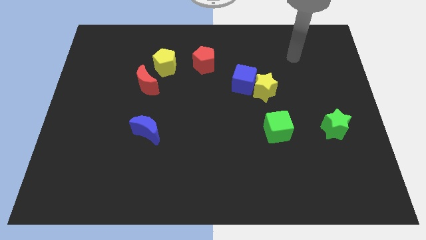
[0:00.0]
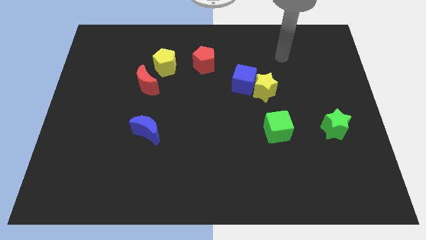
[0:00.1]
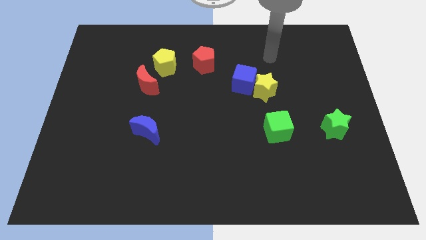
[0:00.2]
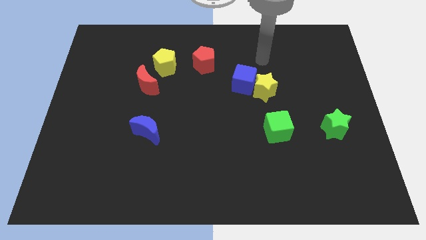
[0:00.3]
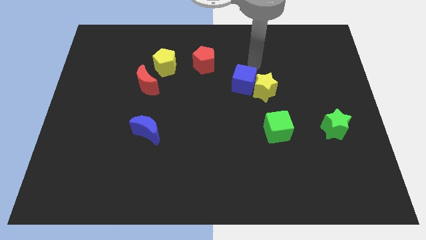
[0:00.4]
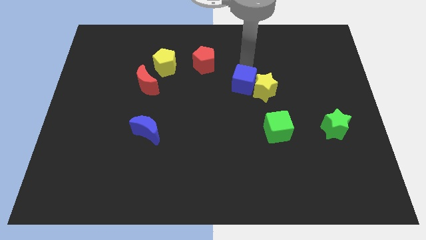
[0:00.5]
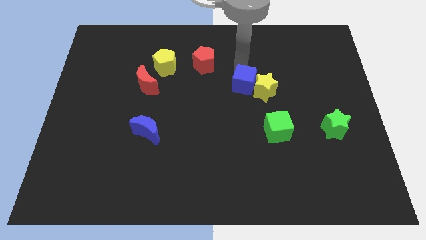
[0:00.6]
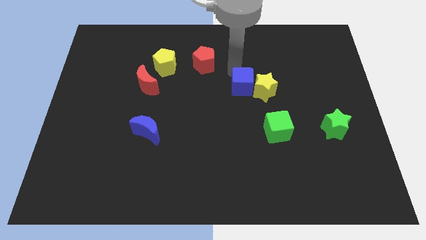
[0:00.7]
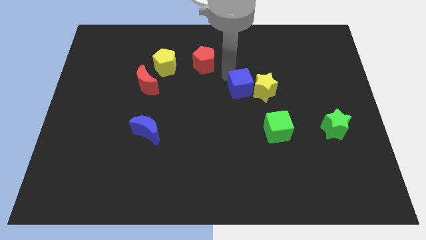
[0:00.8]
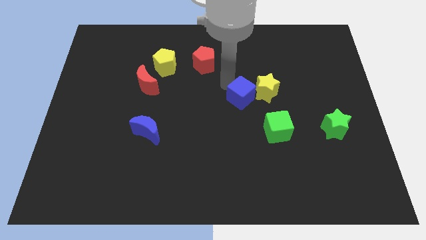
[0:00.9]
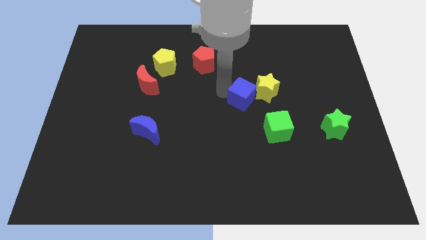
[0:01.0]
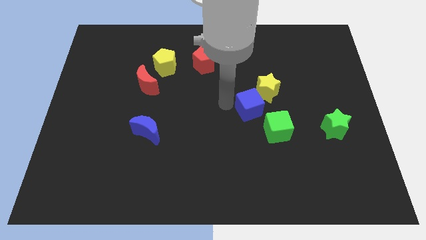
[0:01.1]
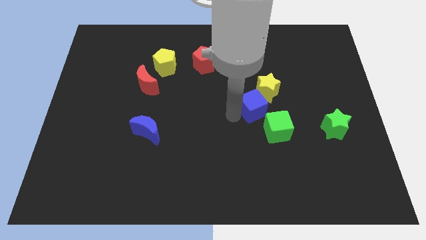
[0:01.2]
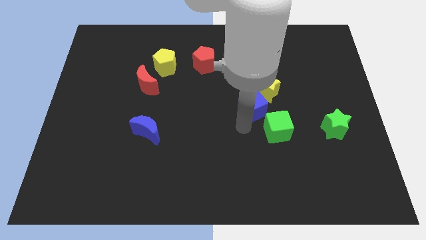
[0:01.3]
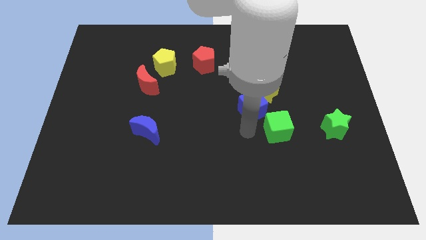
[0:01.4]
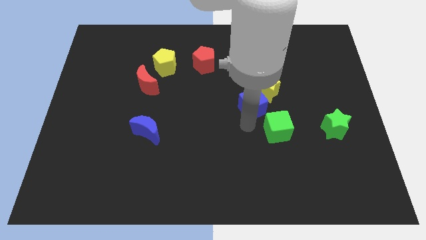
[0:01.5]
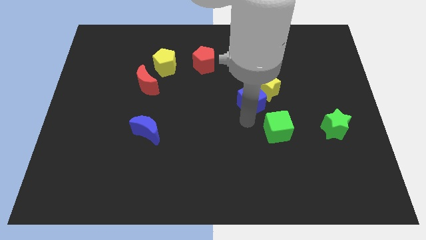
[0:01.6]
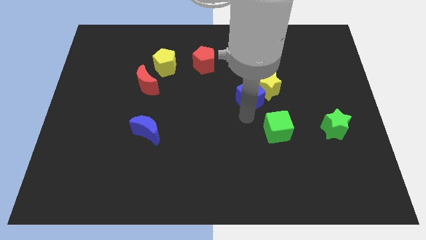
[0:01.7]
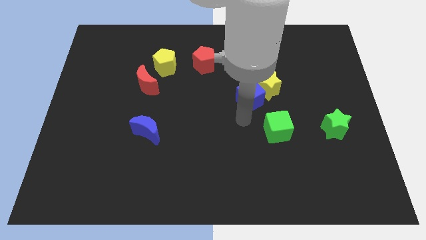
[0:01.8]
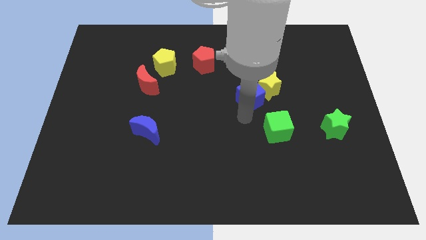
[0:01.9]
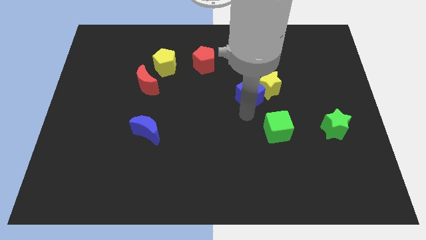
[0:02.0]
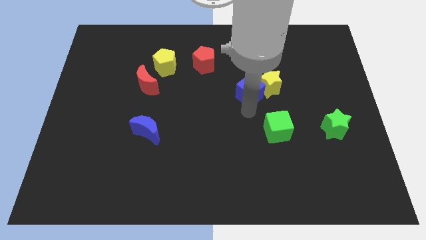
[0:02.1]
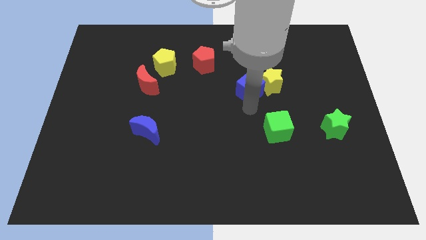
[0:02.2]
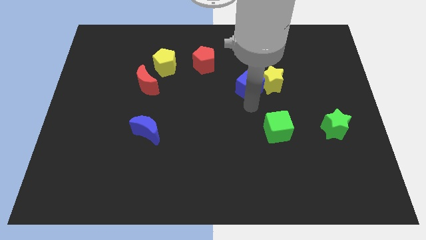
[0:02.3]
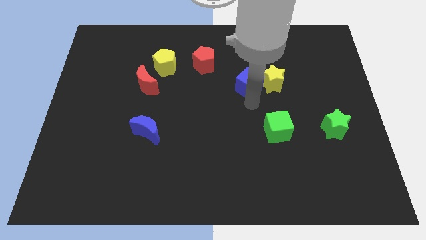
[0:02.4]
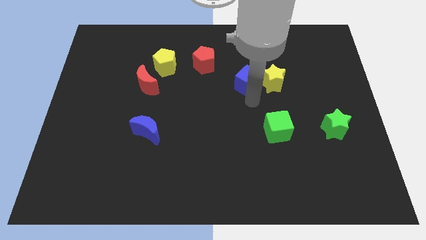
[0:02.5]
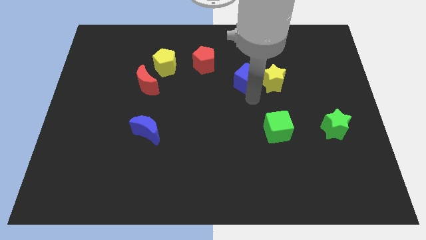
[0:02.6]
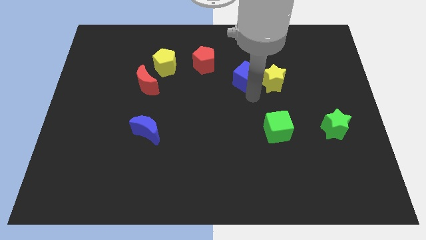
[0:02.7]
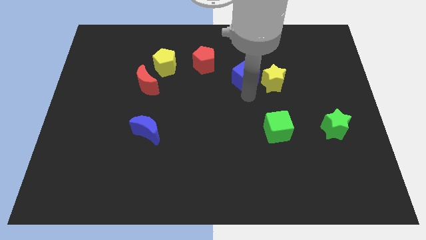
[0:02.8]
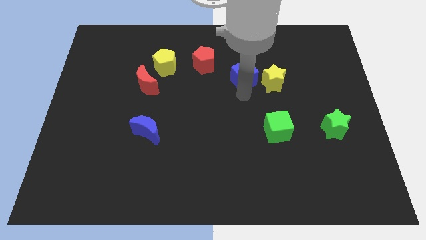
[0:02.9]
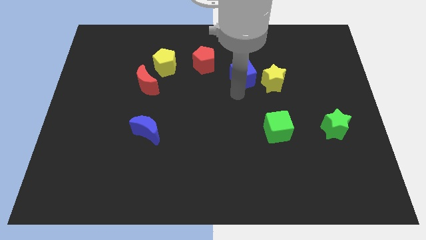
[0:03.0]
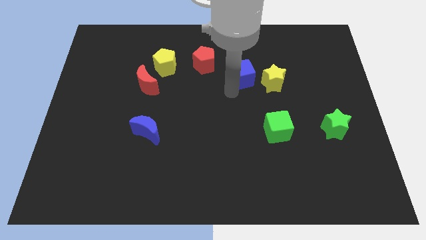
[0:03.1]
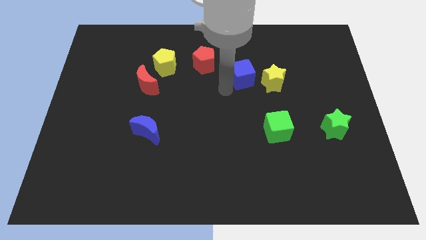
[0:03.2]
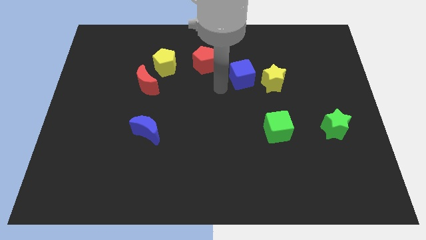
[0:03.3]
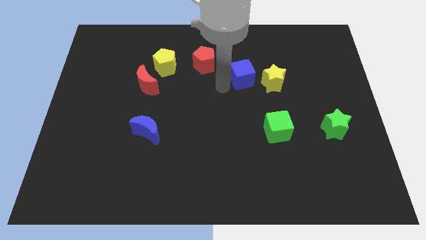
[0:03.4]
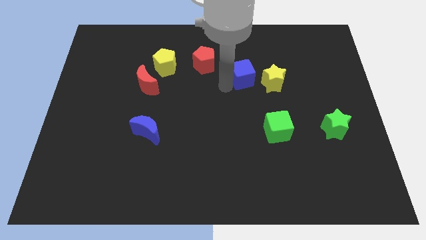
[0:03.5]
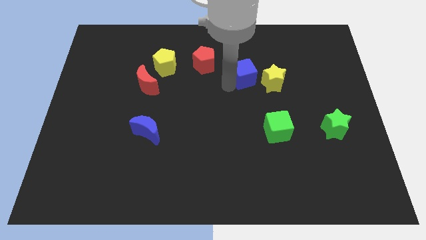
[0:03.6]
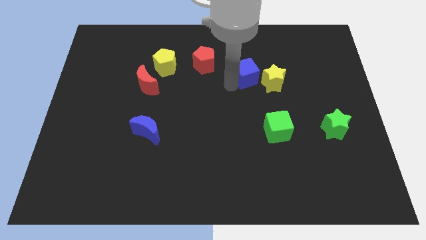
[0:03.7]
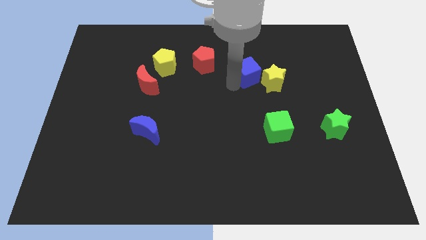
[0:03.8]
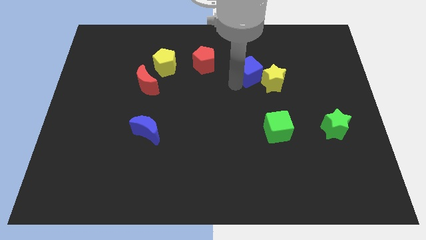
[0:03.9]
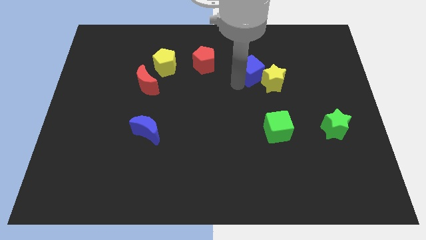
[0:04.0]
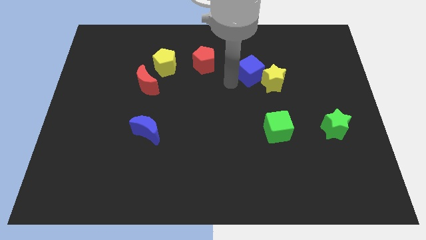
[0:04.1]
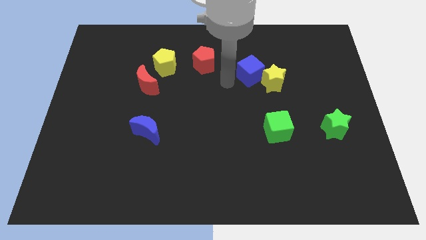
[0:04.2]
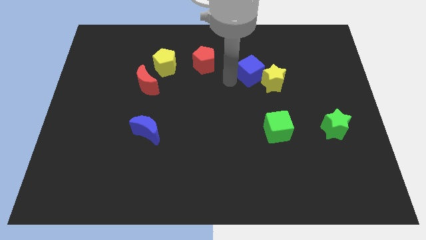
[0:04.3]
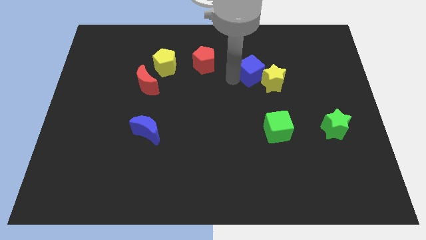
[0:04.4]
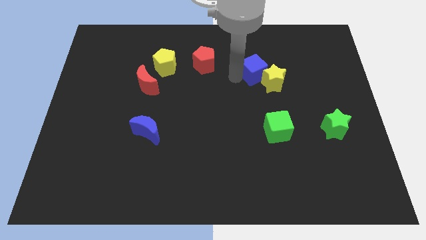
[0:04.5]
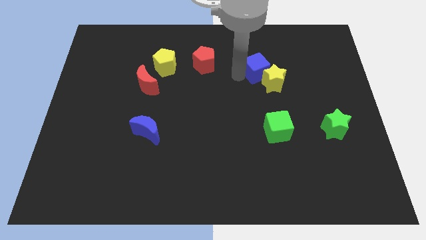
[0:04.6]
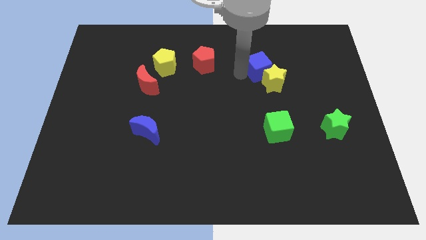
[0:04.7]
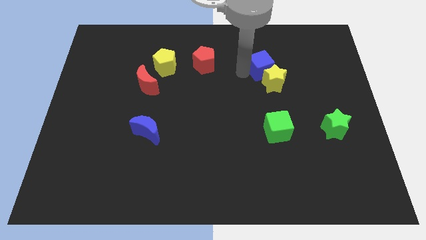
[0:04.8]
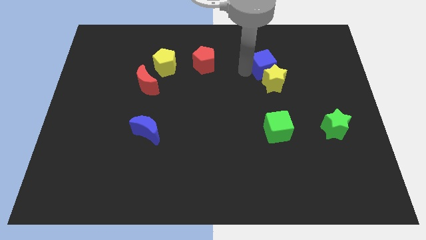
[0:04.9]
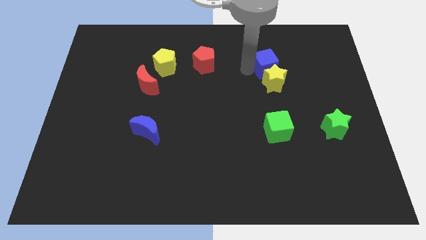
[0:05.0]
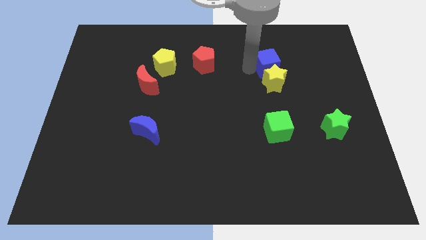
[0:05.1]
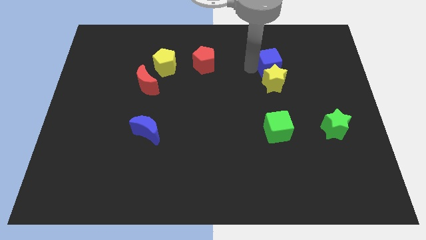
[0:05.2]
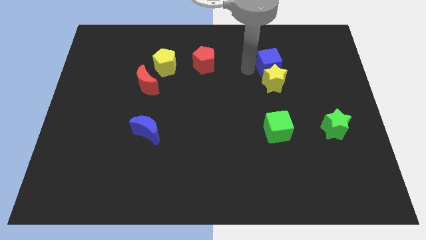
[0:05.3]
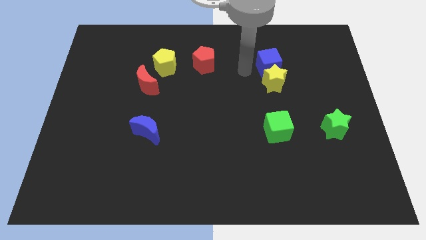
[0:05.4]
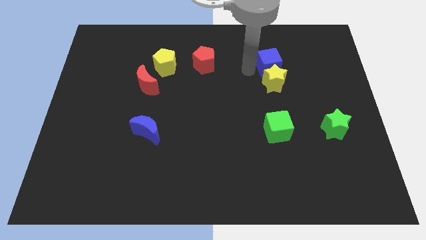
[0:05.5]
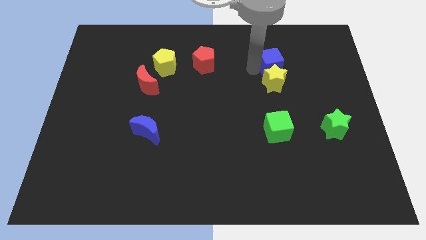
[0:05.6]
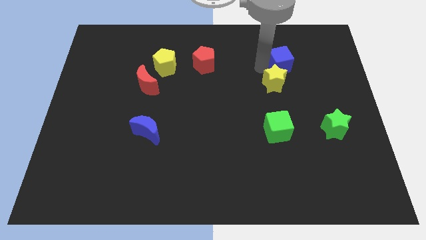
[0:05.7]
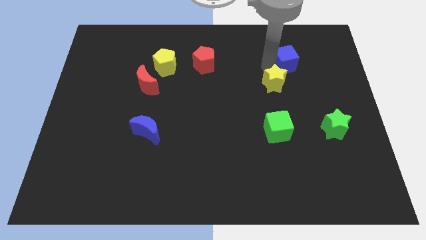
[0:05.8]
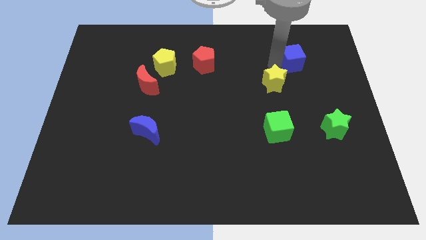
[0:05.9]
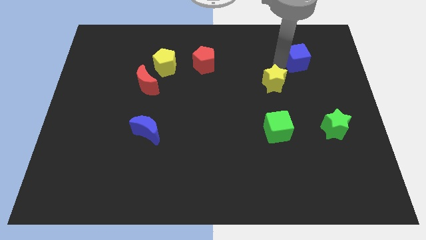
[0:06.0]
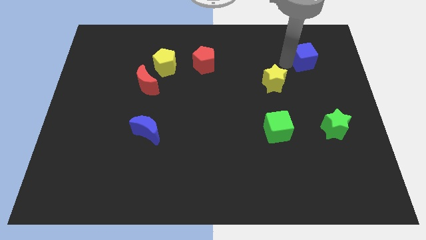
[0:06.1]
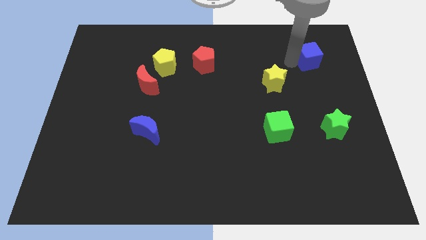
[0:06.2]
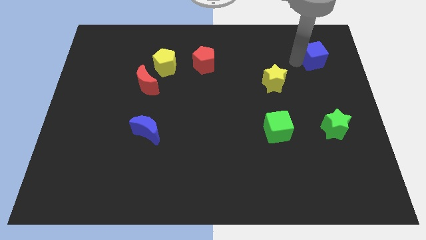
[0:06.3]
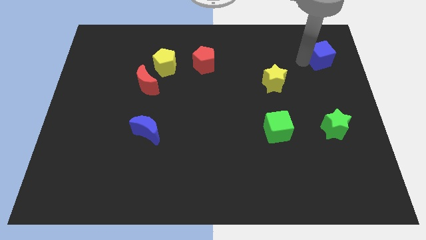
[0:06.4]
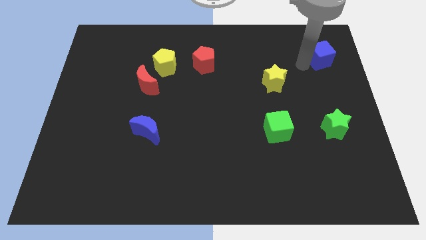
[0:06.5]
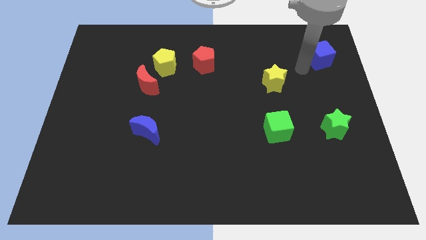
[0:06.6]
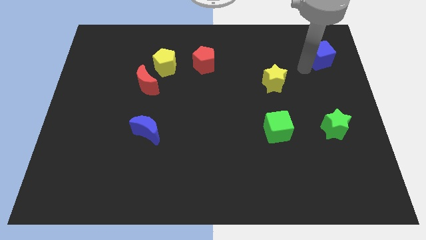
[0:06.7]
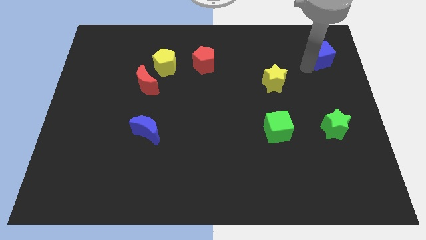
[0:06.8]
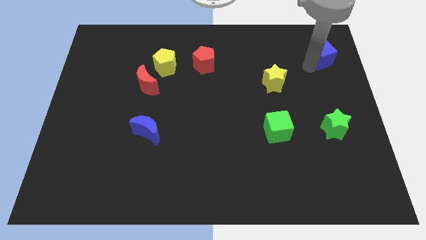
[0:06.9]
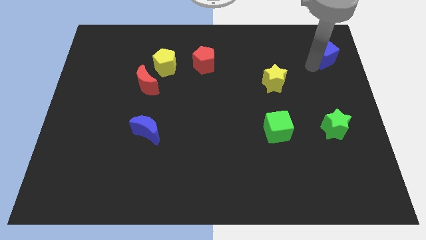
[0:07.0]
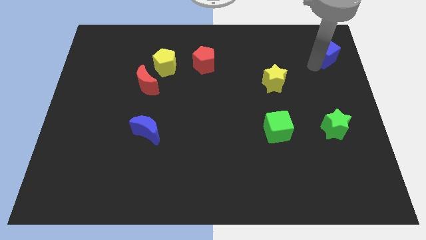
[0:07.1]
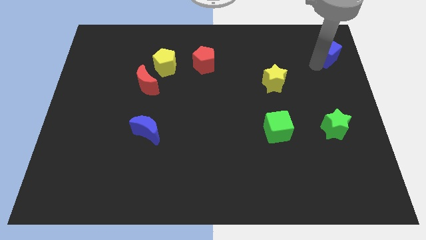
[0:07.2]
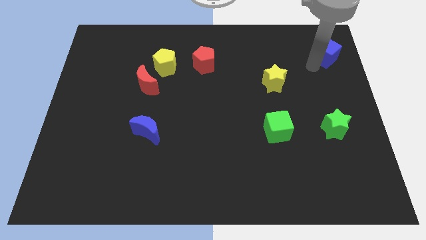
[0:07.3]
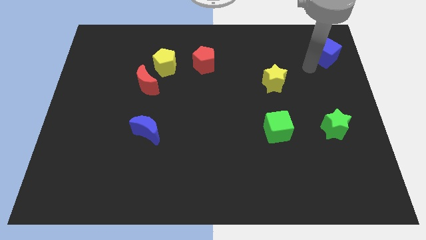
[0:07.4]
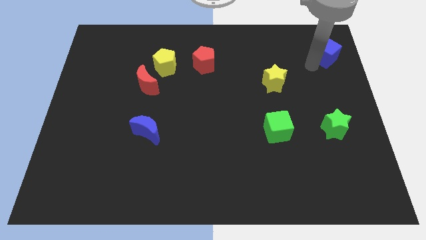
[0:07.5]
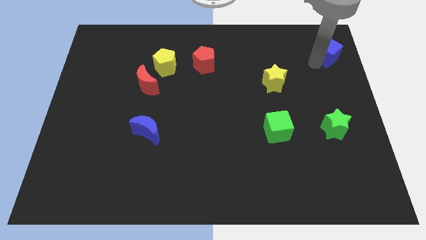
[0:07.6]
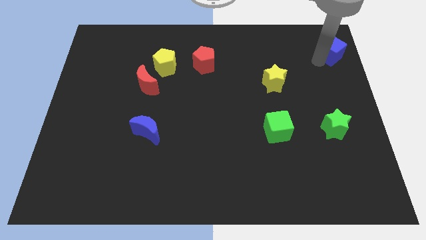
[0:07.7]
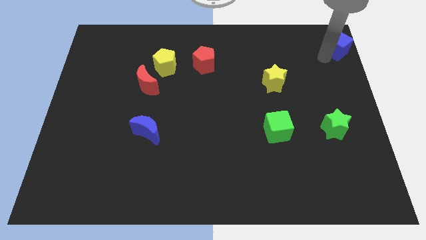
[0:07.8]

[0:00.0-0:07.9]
move the blue cube to the top right
